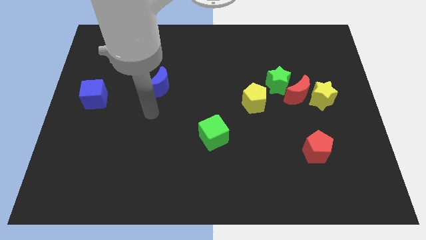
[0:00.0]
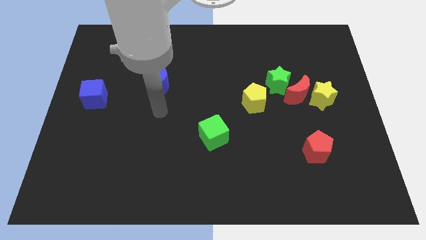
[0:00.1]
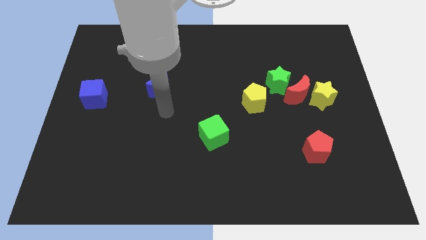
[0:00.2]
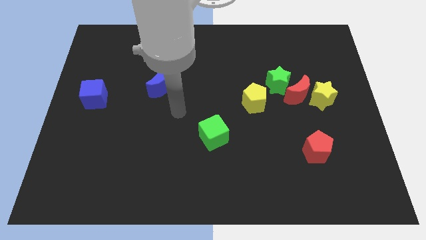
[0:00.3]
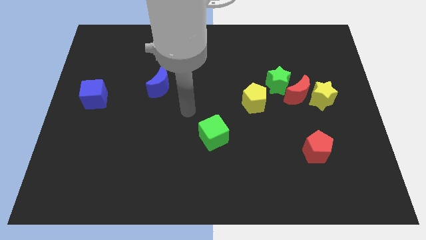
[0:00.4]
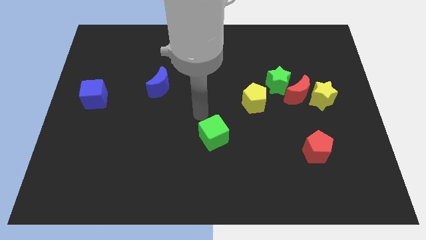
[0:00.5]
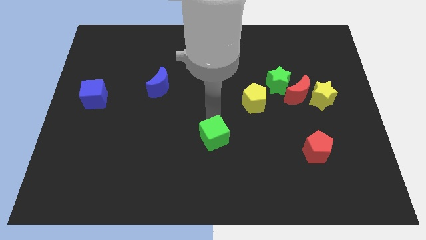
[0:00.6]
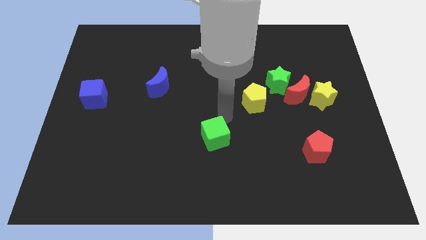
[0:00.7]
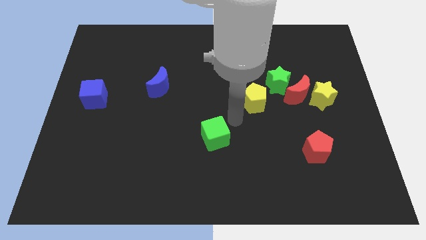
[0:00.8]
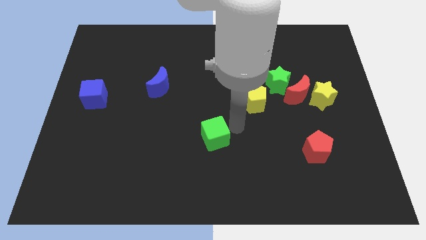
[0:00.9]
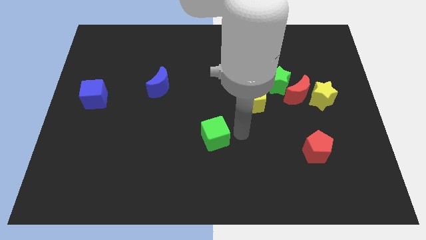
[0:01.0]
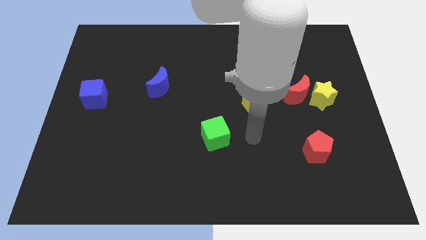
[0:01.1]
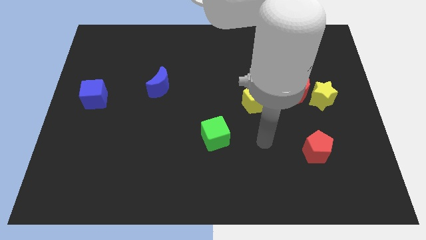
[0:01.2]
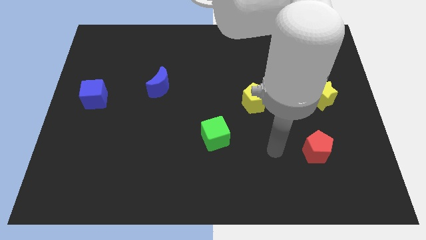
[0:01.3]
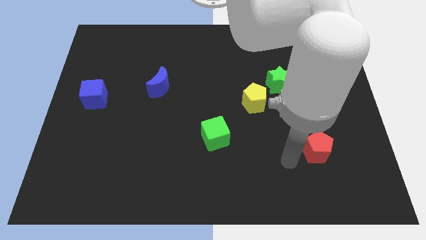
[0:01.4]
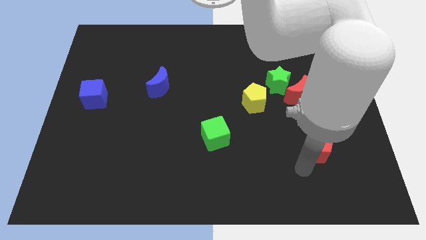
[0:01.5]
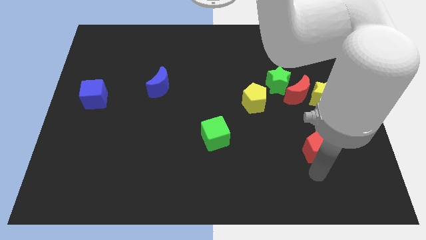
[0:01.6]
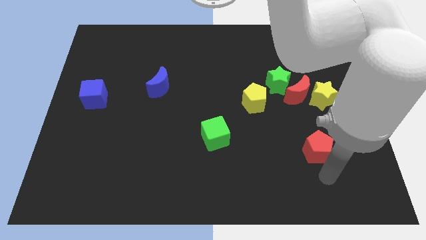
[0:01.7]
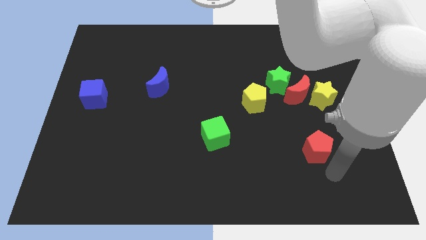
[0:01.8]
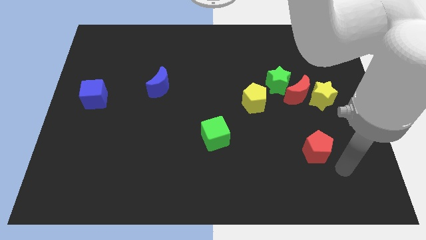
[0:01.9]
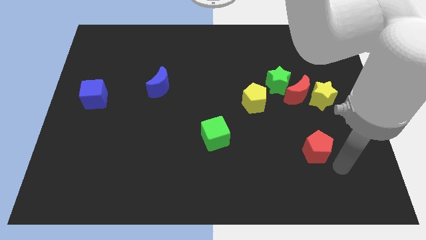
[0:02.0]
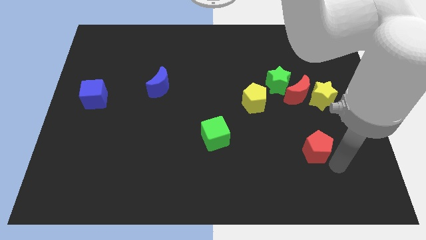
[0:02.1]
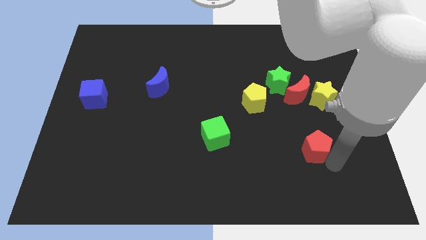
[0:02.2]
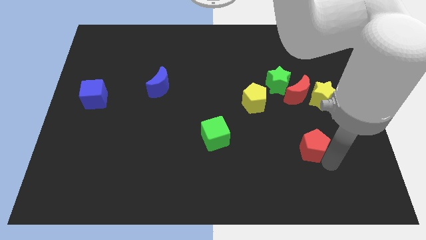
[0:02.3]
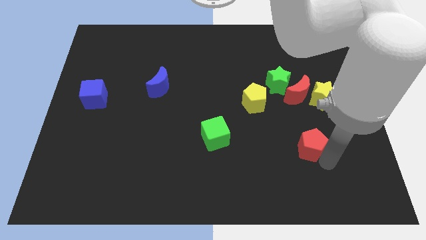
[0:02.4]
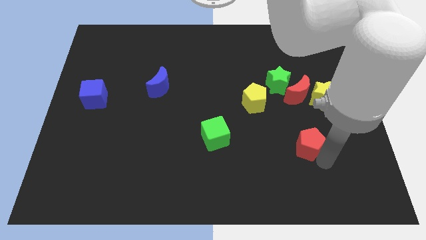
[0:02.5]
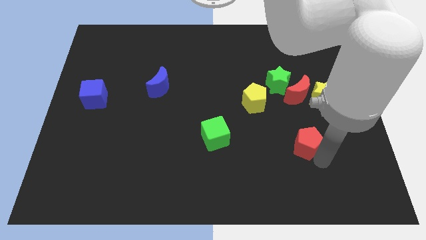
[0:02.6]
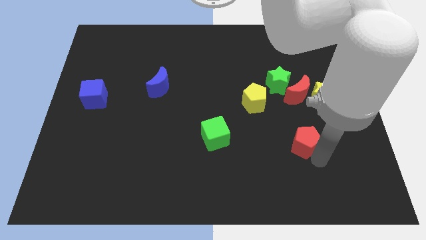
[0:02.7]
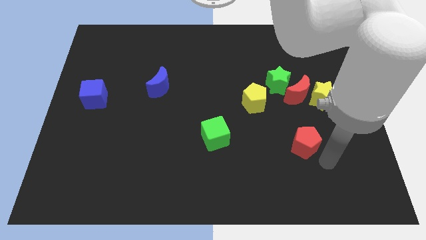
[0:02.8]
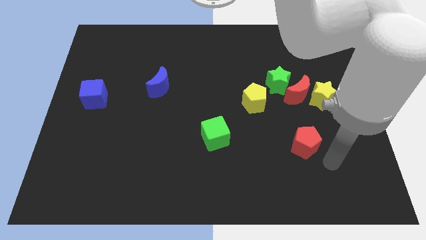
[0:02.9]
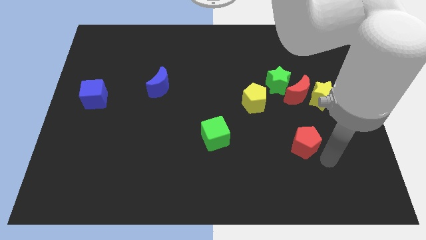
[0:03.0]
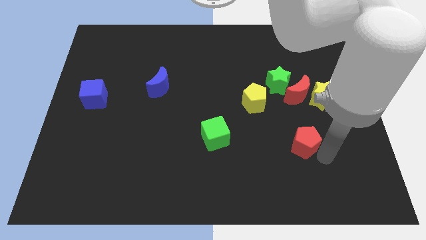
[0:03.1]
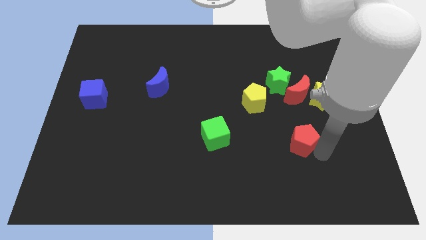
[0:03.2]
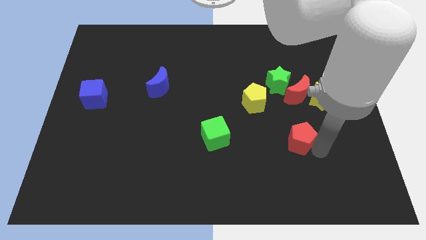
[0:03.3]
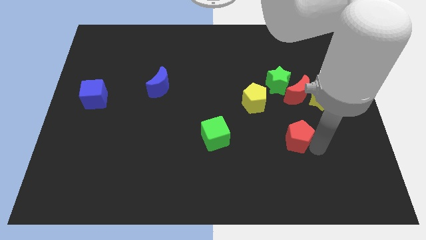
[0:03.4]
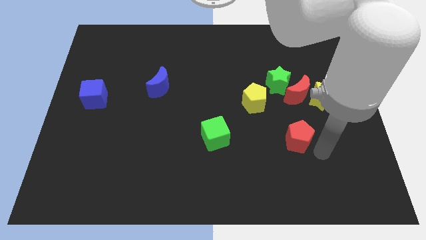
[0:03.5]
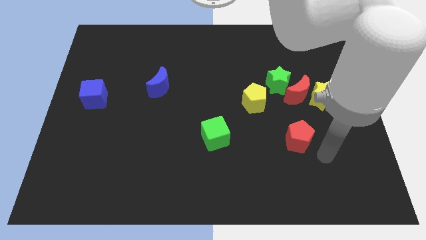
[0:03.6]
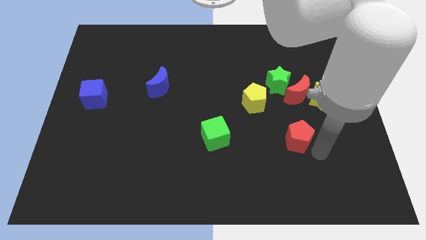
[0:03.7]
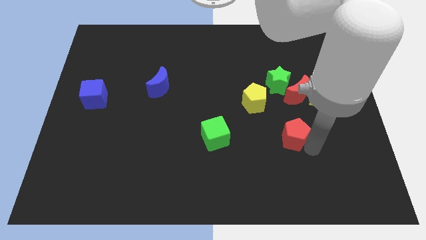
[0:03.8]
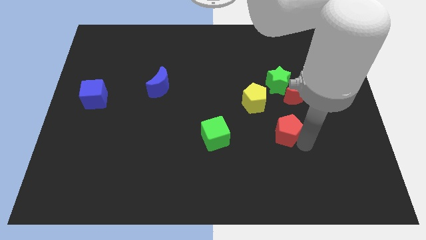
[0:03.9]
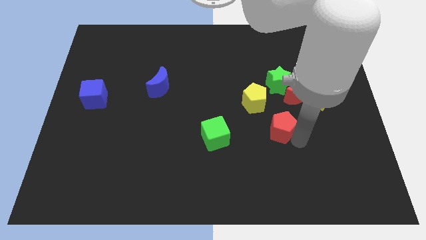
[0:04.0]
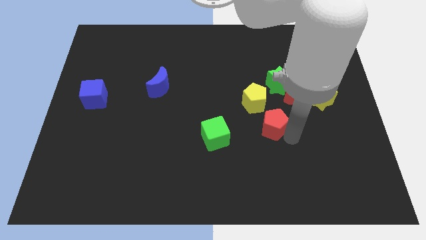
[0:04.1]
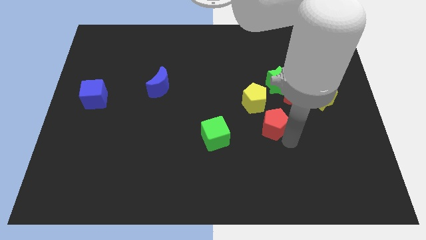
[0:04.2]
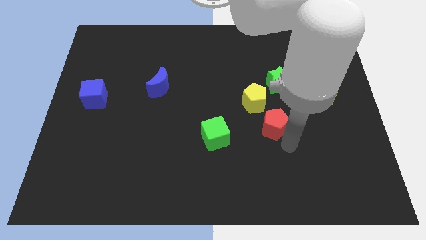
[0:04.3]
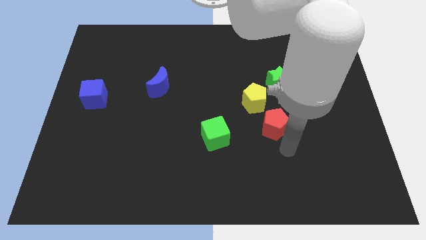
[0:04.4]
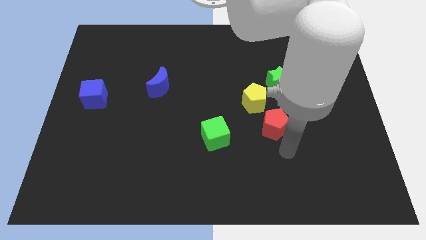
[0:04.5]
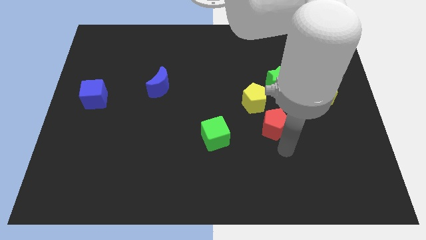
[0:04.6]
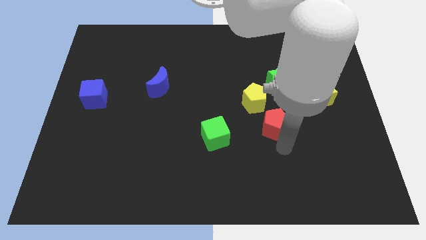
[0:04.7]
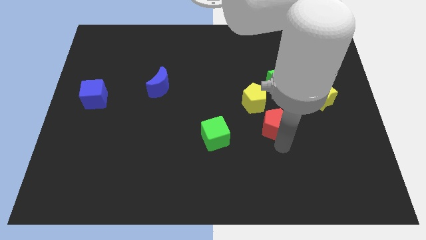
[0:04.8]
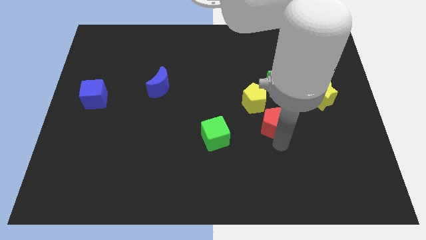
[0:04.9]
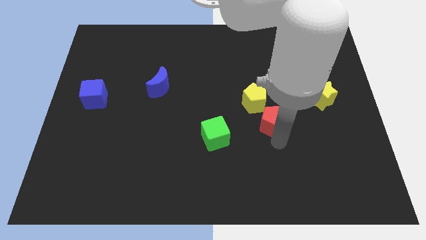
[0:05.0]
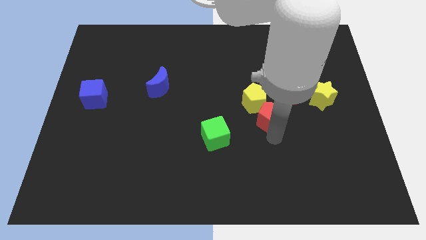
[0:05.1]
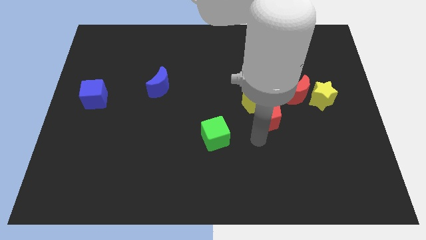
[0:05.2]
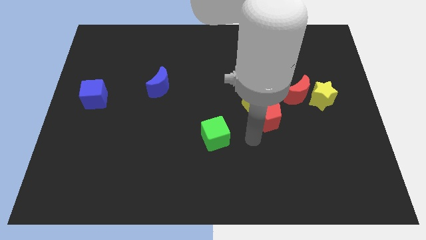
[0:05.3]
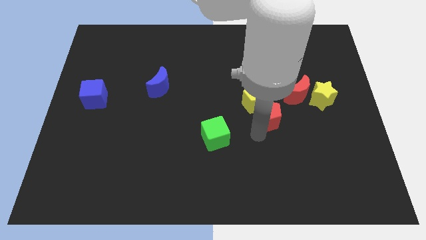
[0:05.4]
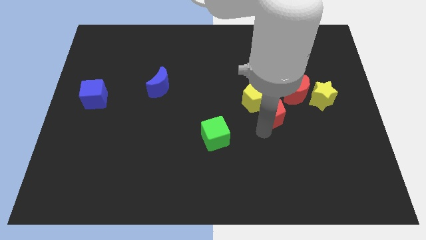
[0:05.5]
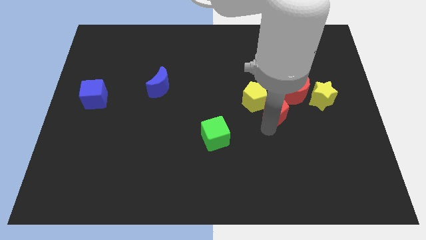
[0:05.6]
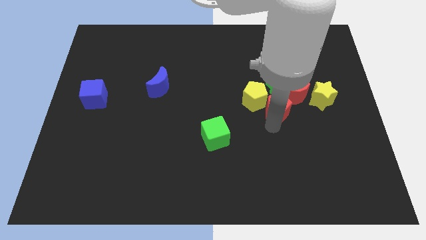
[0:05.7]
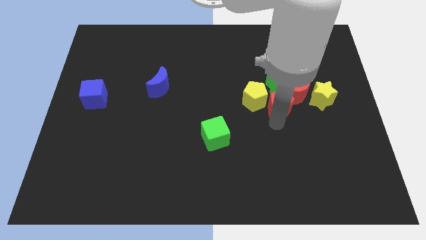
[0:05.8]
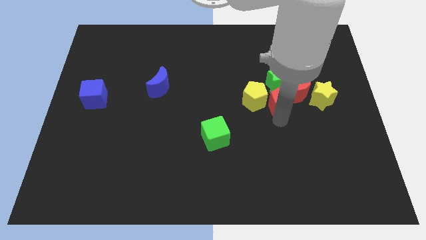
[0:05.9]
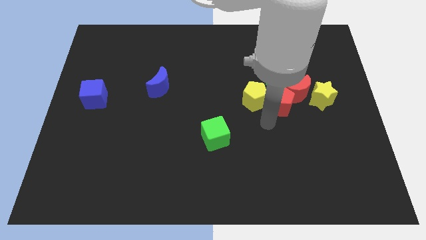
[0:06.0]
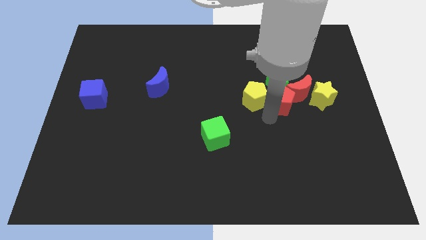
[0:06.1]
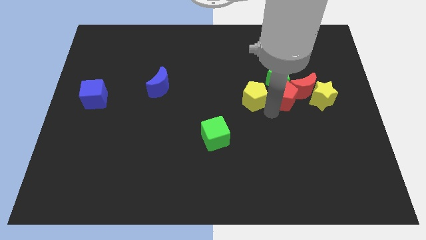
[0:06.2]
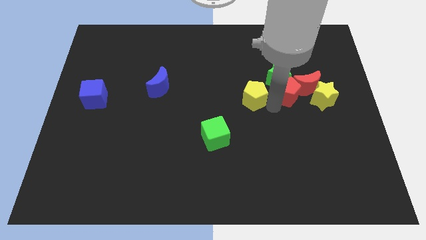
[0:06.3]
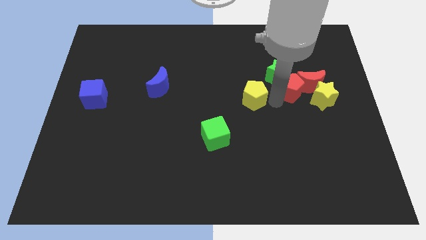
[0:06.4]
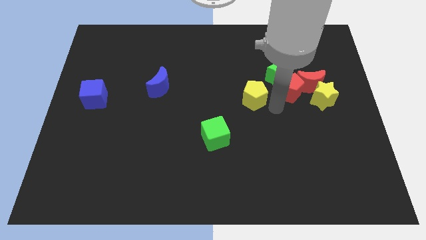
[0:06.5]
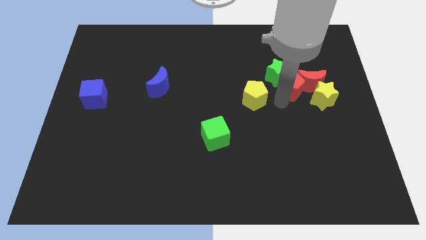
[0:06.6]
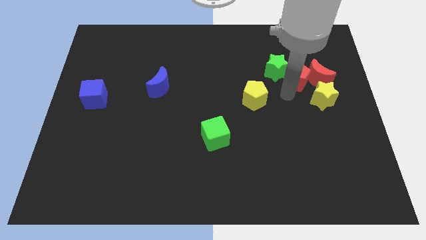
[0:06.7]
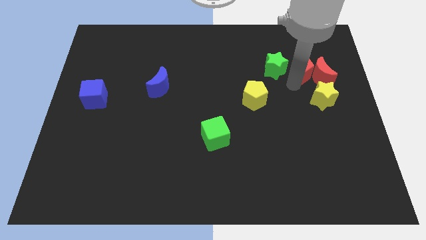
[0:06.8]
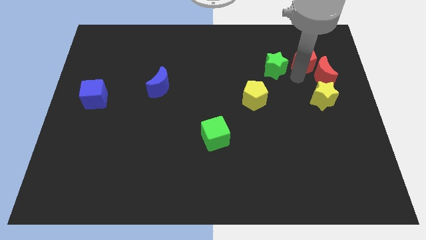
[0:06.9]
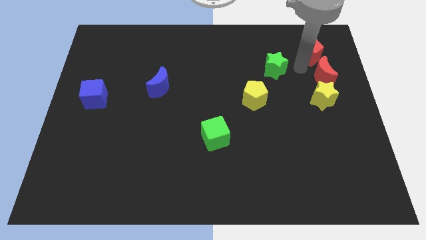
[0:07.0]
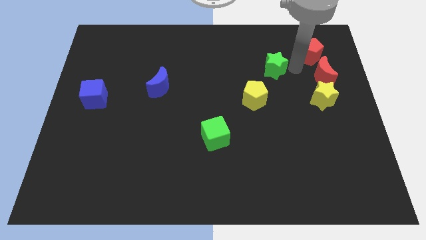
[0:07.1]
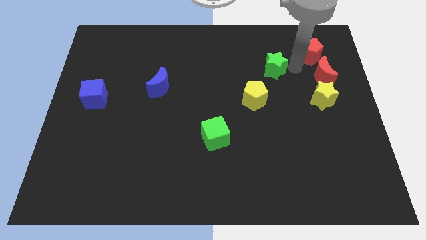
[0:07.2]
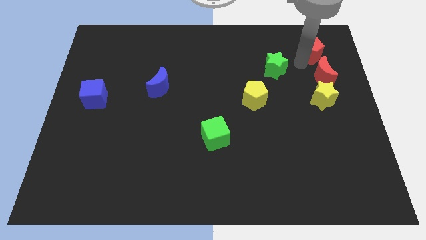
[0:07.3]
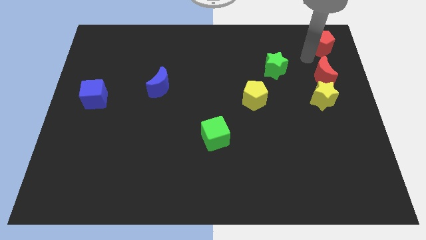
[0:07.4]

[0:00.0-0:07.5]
push the red pentagon to the top right corner
